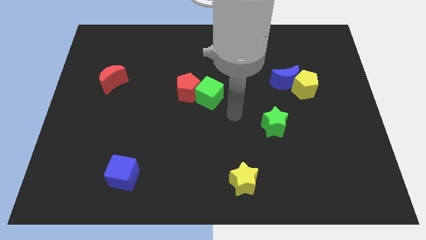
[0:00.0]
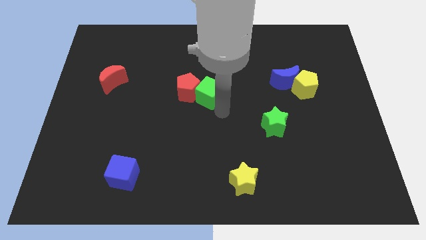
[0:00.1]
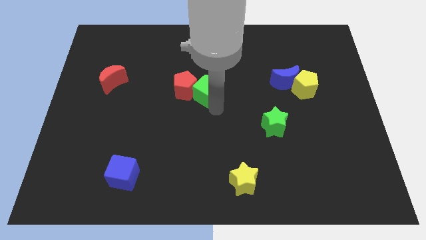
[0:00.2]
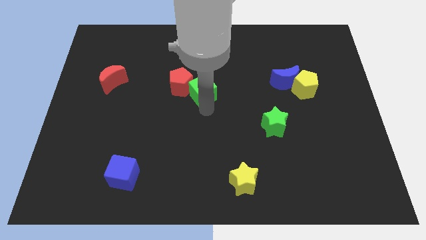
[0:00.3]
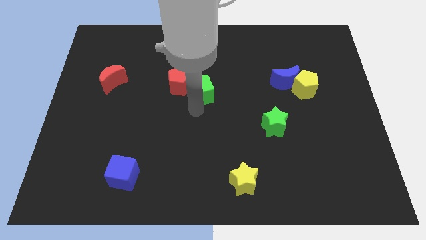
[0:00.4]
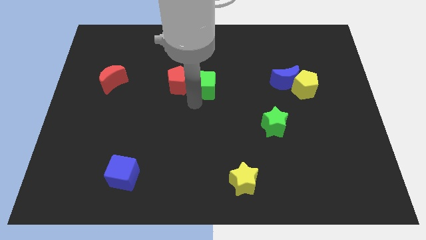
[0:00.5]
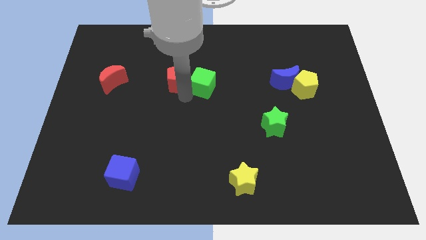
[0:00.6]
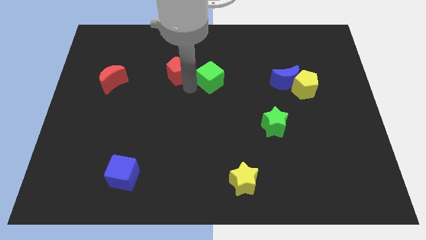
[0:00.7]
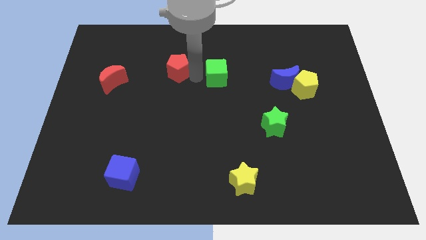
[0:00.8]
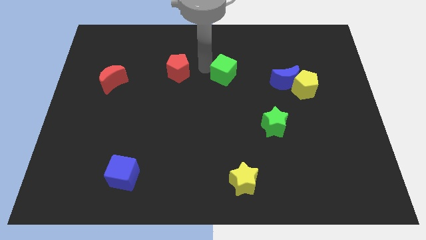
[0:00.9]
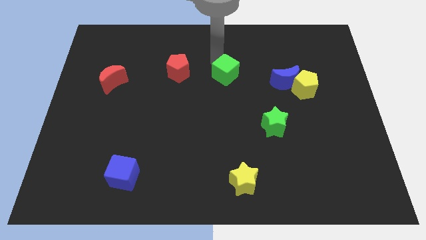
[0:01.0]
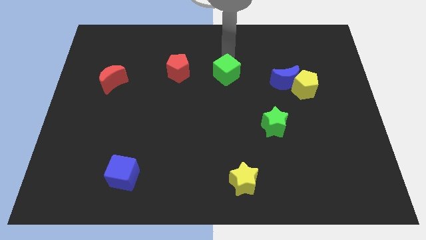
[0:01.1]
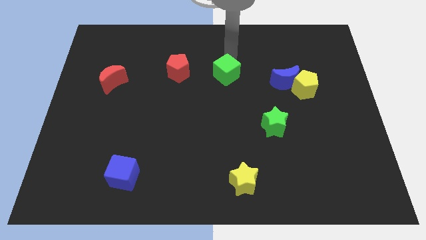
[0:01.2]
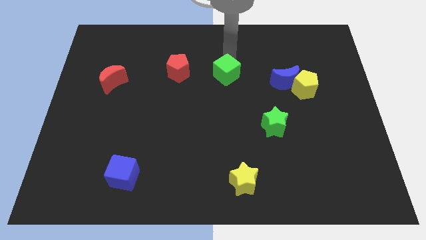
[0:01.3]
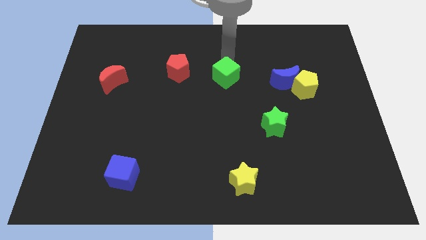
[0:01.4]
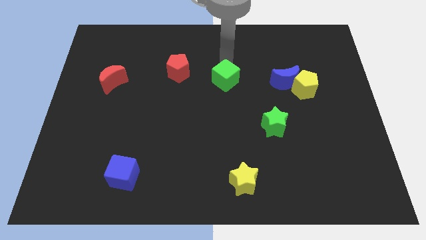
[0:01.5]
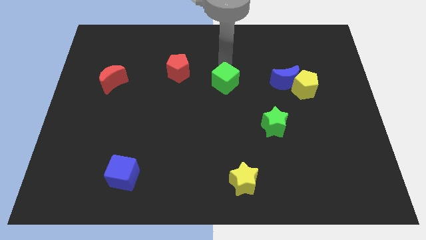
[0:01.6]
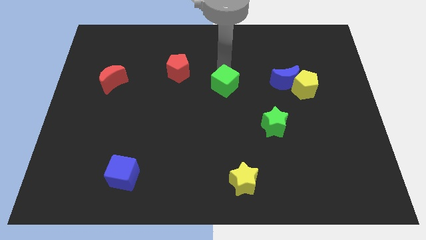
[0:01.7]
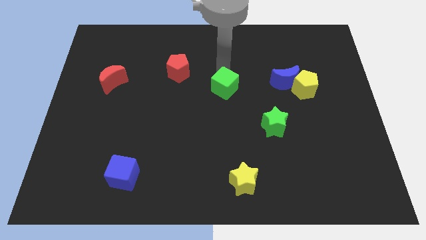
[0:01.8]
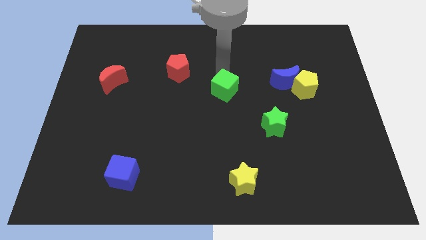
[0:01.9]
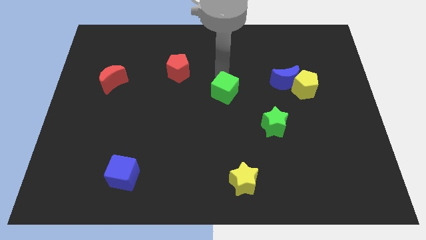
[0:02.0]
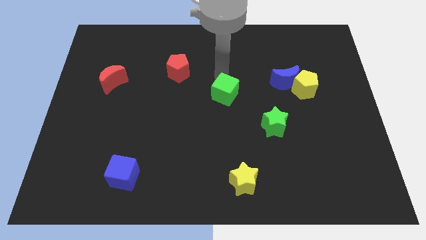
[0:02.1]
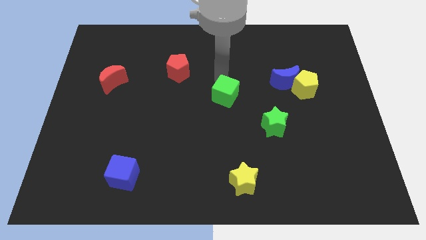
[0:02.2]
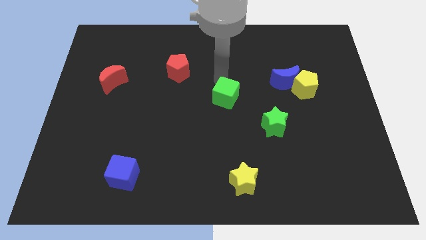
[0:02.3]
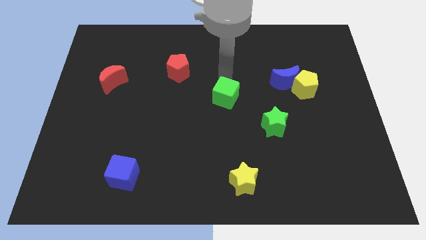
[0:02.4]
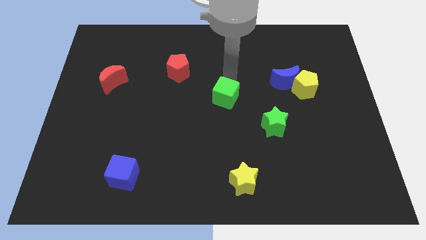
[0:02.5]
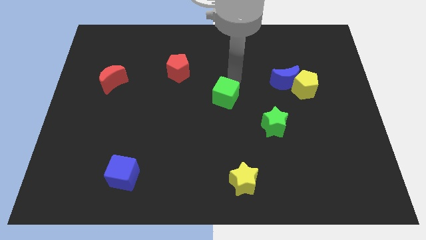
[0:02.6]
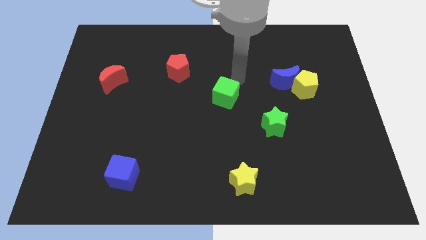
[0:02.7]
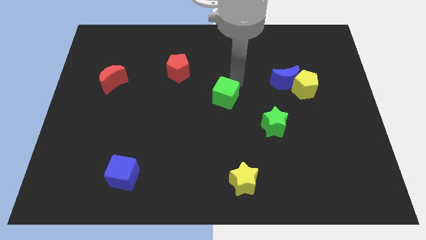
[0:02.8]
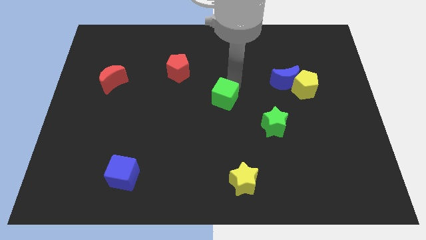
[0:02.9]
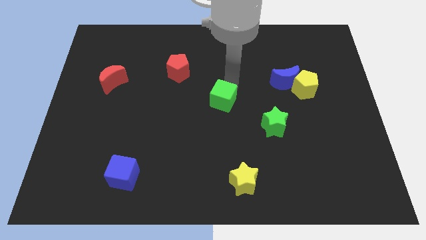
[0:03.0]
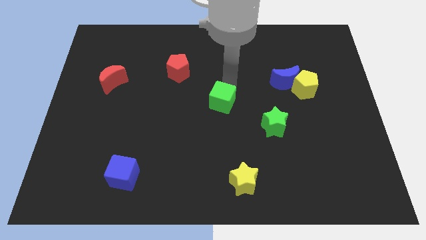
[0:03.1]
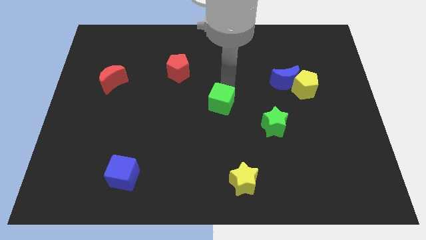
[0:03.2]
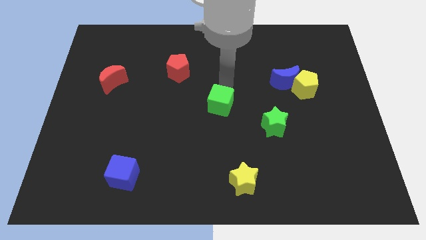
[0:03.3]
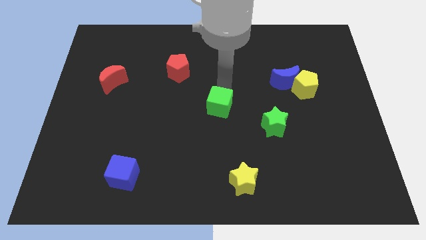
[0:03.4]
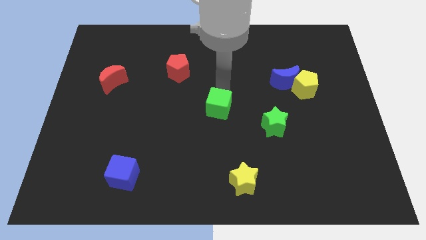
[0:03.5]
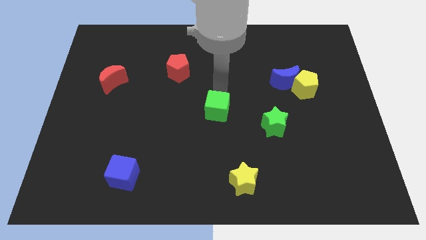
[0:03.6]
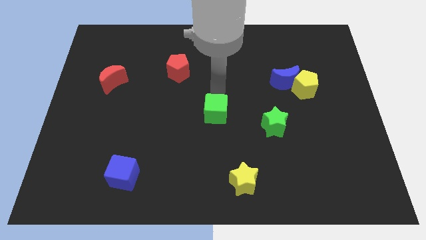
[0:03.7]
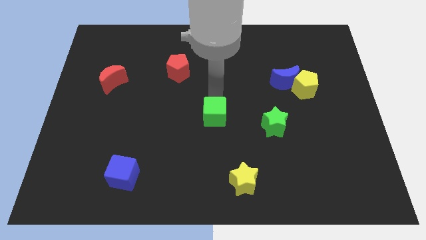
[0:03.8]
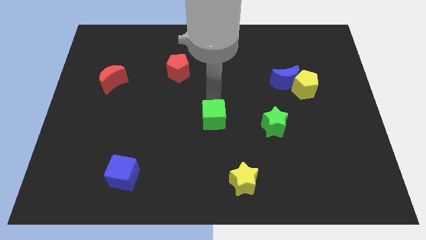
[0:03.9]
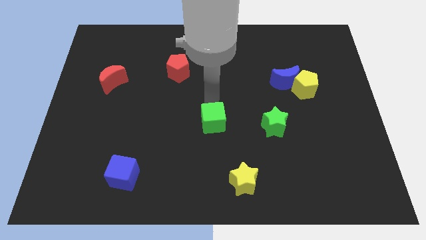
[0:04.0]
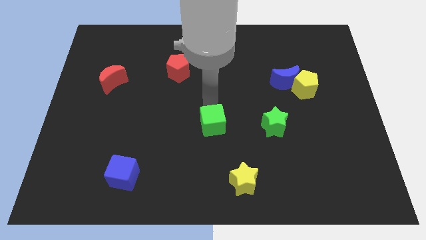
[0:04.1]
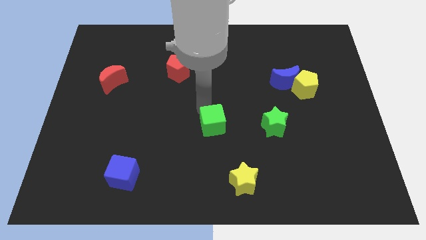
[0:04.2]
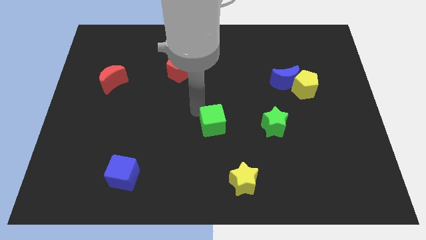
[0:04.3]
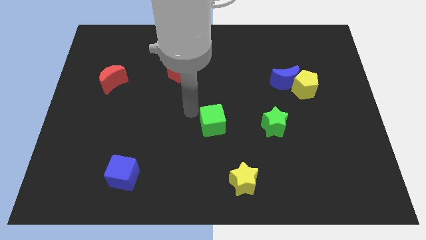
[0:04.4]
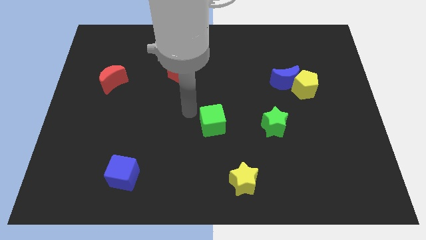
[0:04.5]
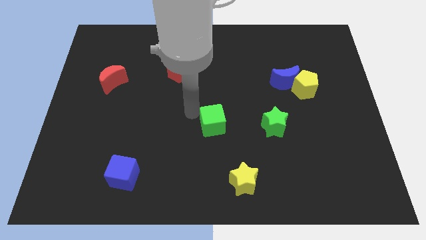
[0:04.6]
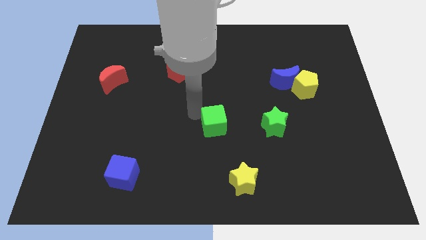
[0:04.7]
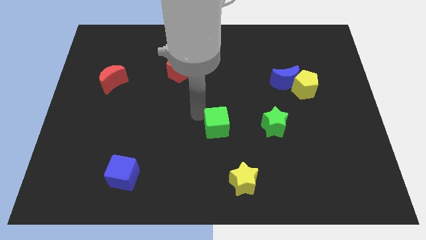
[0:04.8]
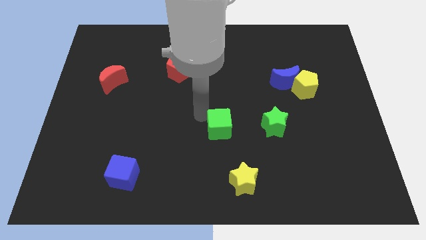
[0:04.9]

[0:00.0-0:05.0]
move the green cube above the yellow star

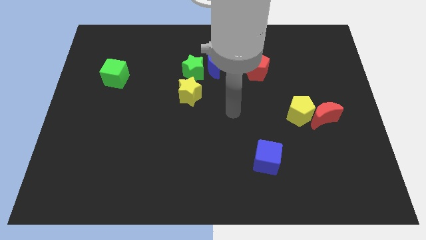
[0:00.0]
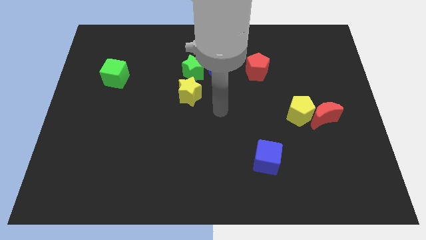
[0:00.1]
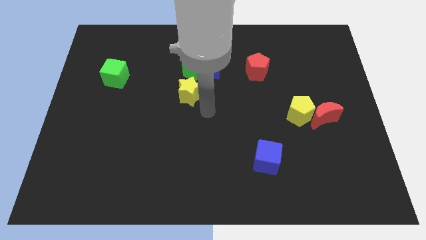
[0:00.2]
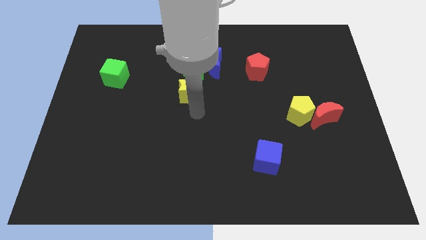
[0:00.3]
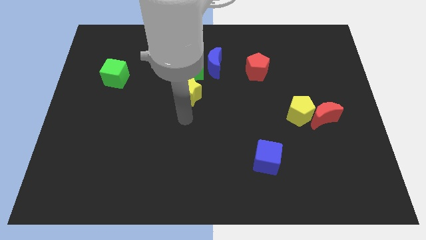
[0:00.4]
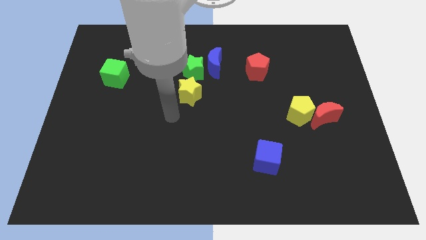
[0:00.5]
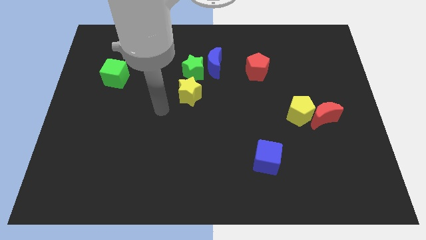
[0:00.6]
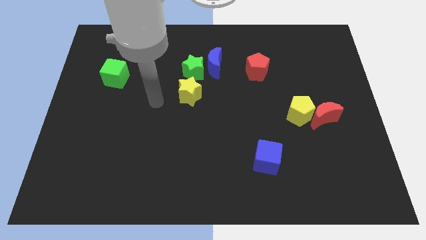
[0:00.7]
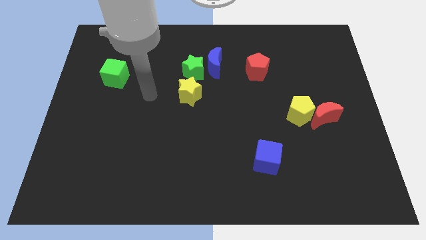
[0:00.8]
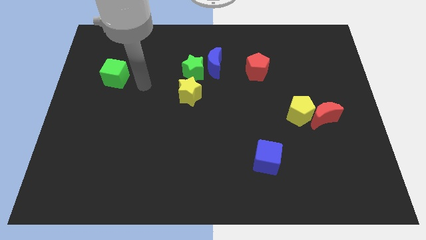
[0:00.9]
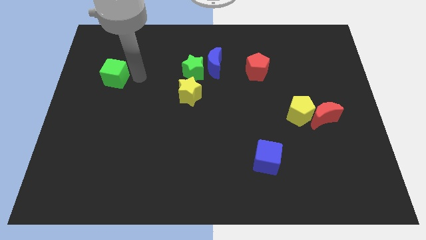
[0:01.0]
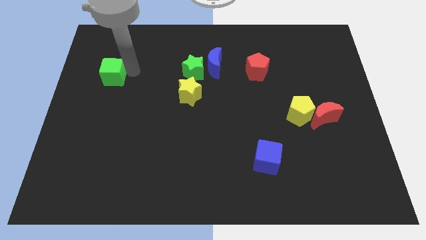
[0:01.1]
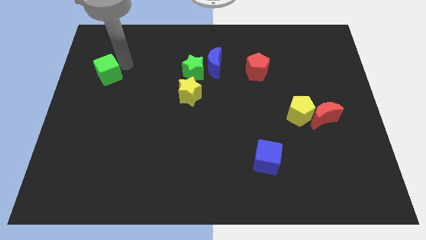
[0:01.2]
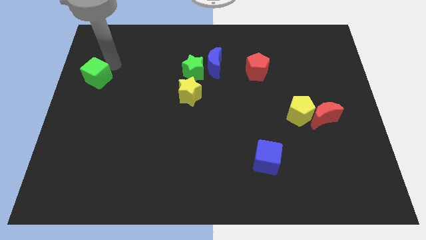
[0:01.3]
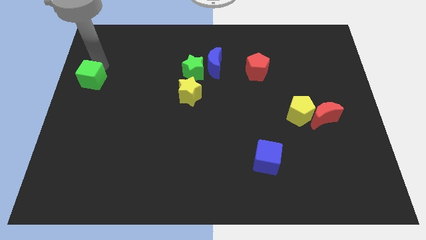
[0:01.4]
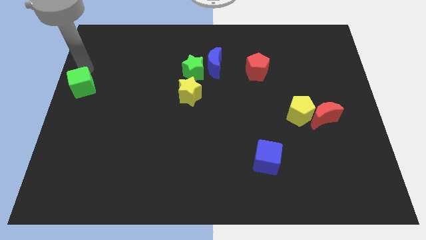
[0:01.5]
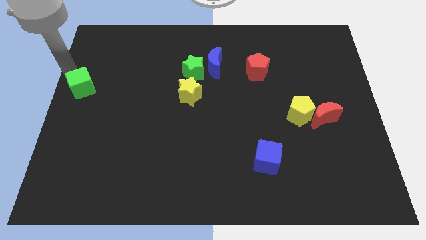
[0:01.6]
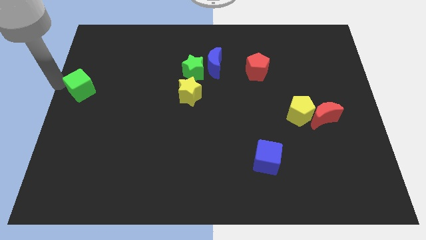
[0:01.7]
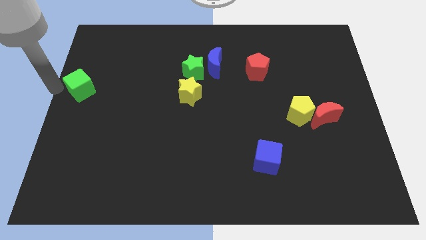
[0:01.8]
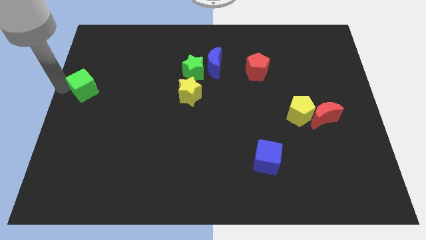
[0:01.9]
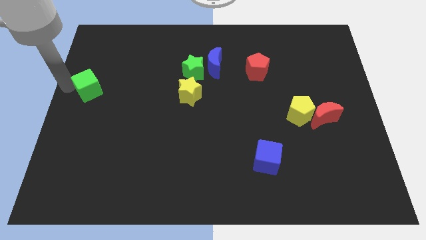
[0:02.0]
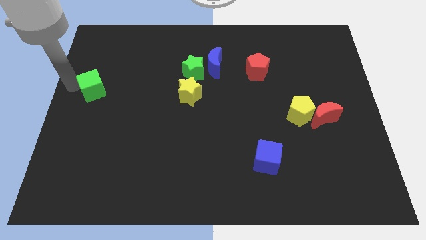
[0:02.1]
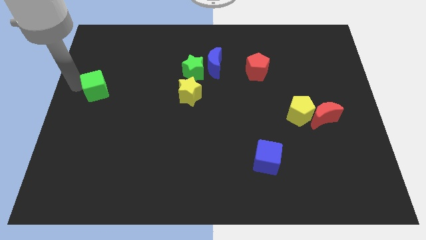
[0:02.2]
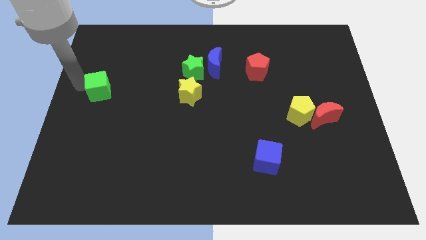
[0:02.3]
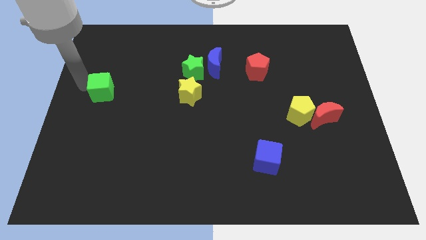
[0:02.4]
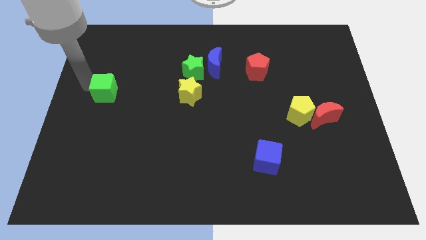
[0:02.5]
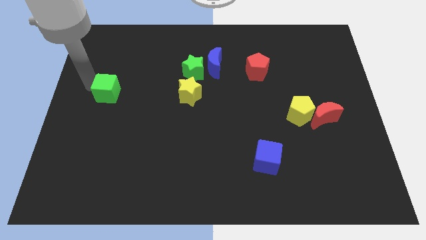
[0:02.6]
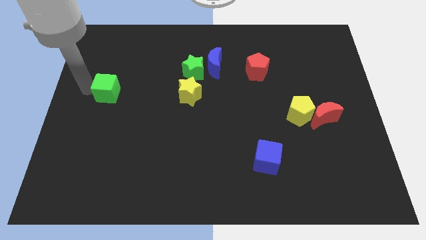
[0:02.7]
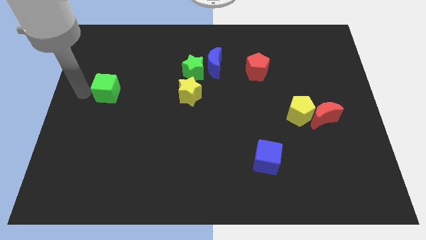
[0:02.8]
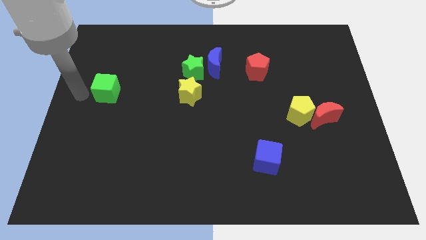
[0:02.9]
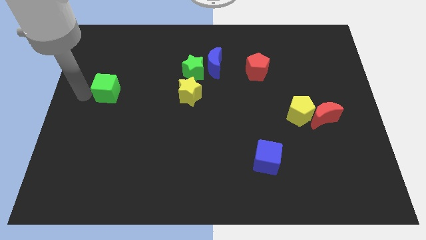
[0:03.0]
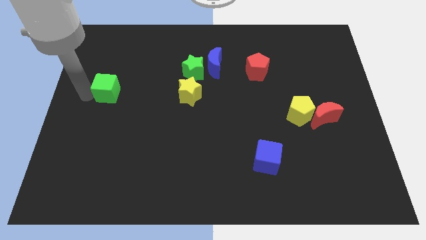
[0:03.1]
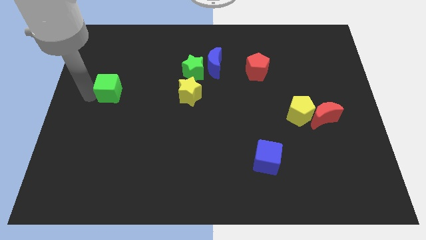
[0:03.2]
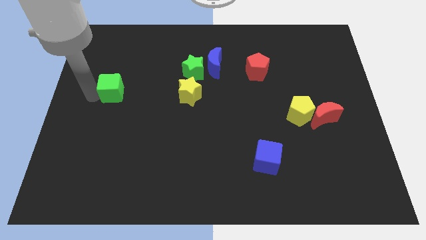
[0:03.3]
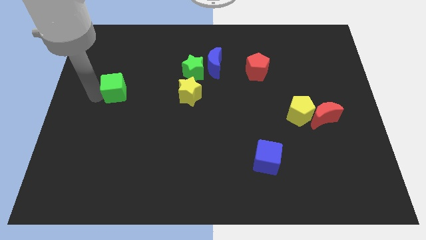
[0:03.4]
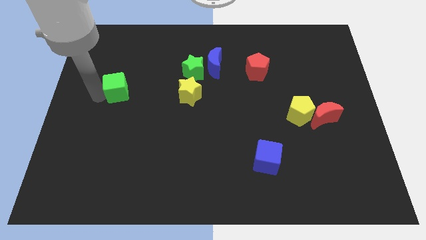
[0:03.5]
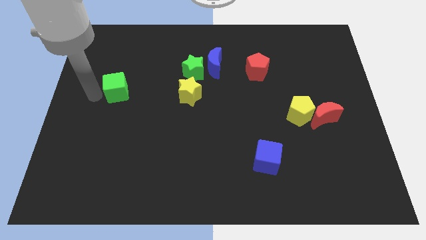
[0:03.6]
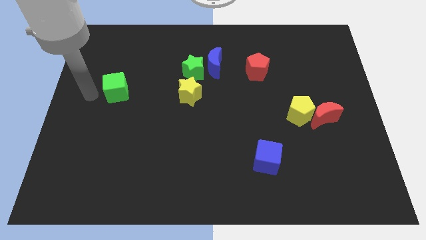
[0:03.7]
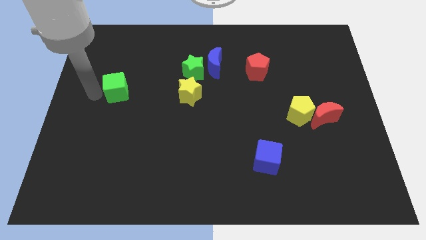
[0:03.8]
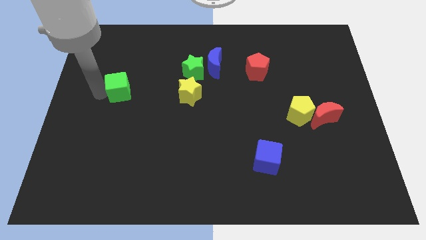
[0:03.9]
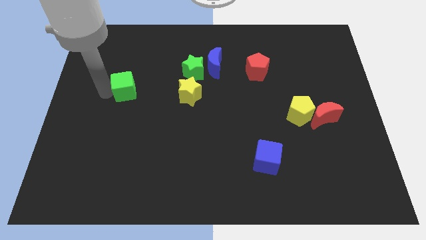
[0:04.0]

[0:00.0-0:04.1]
push the green cube to the left side of the yellow star
